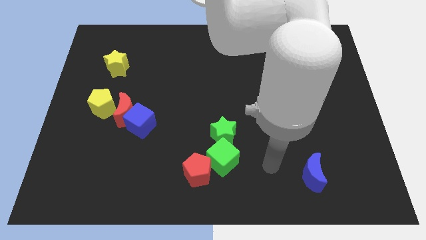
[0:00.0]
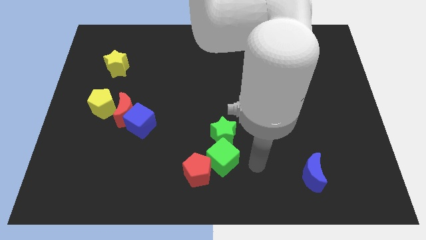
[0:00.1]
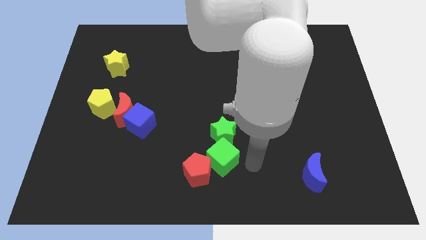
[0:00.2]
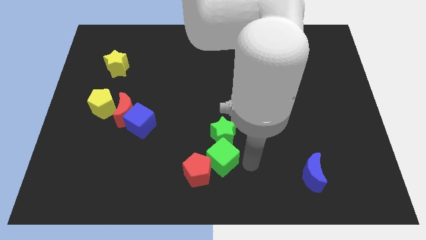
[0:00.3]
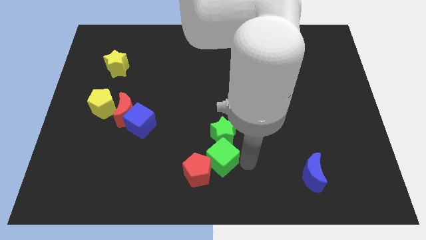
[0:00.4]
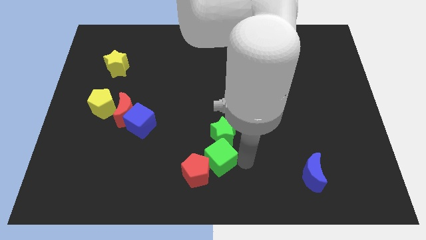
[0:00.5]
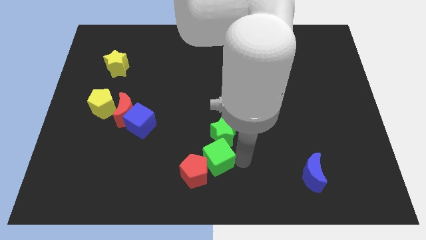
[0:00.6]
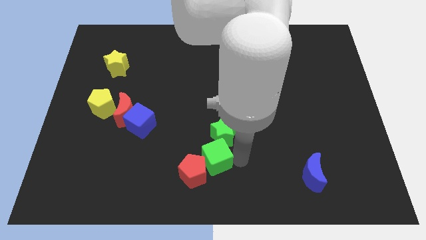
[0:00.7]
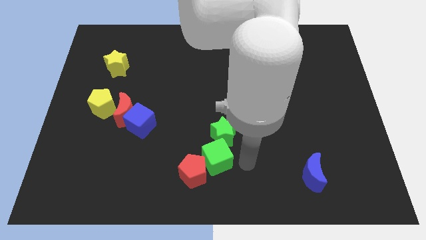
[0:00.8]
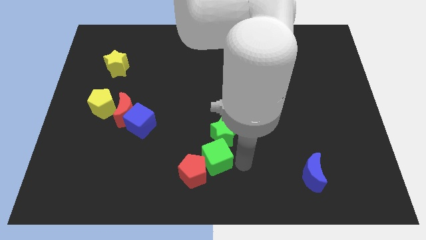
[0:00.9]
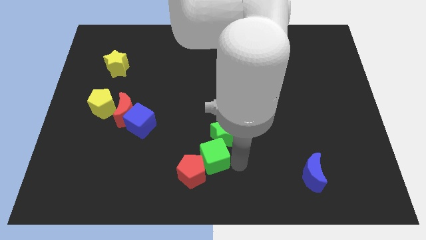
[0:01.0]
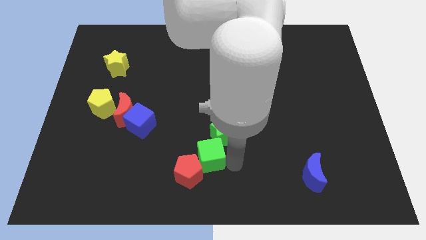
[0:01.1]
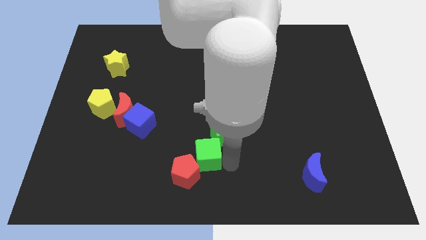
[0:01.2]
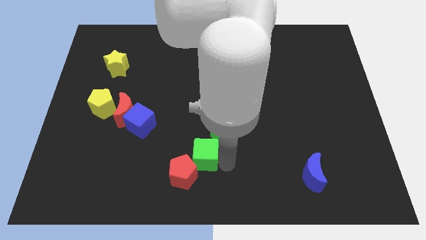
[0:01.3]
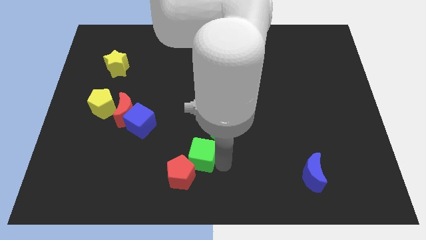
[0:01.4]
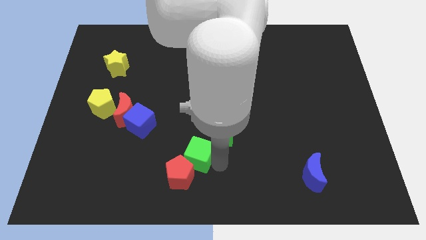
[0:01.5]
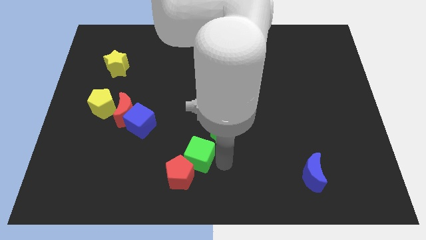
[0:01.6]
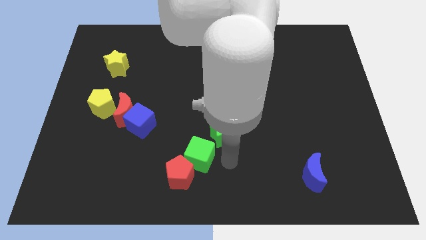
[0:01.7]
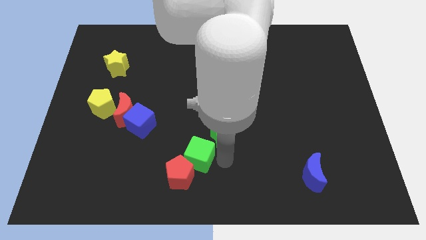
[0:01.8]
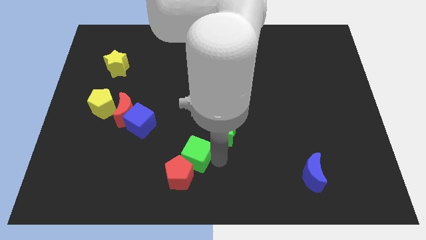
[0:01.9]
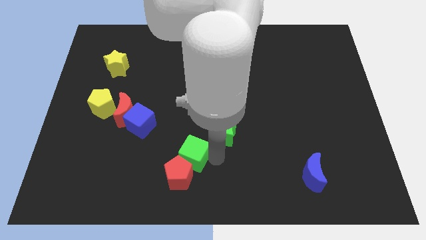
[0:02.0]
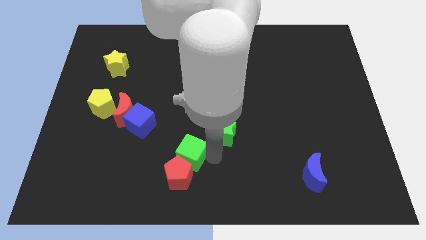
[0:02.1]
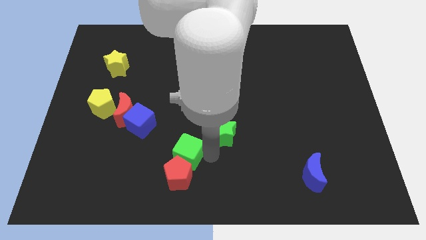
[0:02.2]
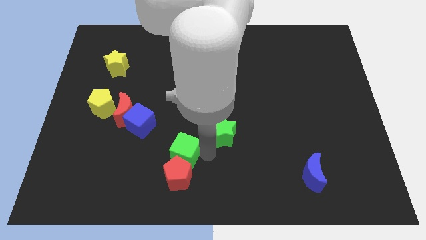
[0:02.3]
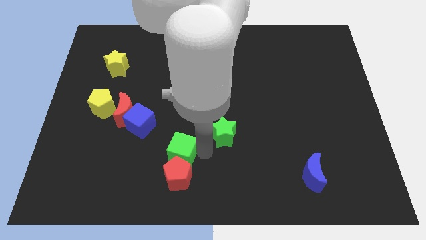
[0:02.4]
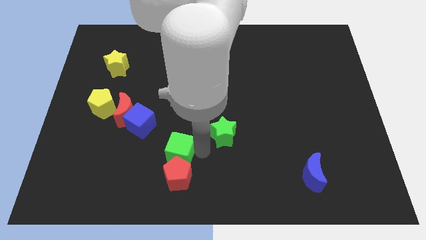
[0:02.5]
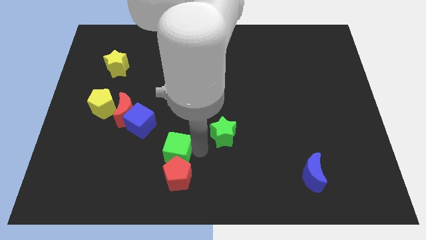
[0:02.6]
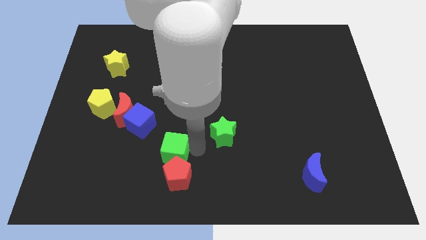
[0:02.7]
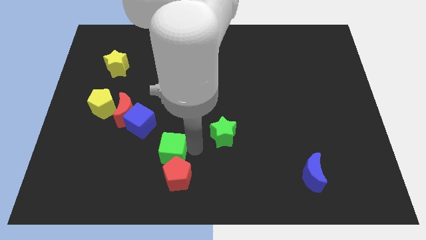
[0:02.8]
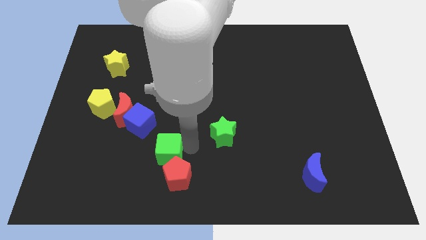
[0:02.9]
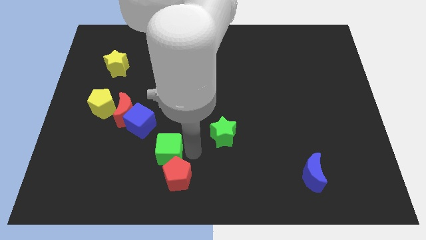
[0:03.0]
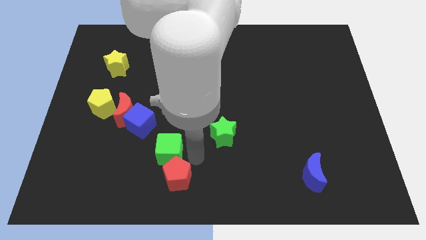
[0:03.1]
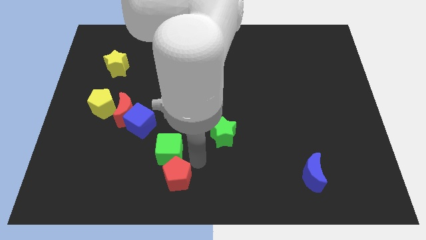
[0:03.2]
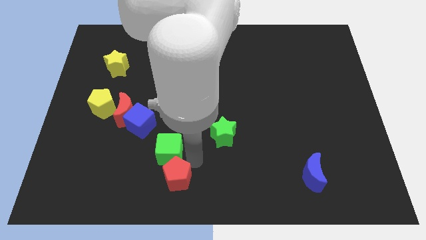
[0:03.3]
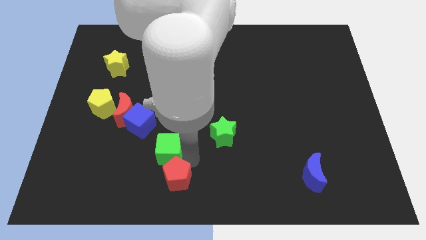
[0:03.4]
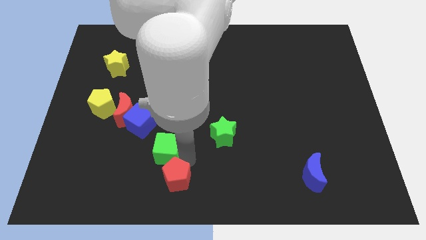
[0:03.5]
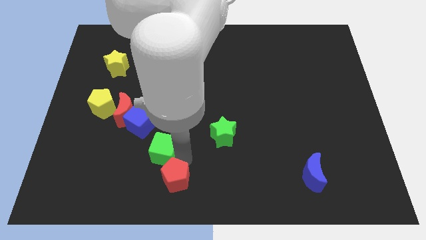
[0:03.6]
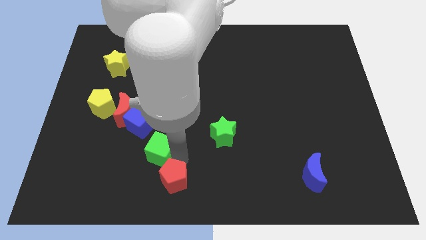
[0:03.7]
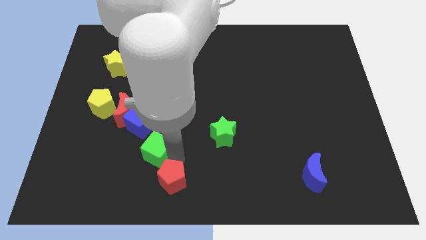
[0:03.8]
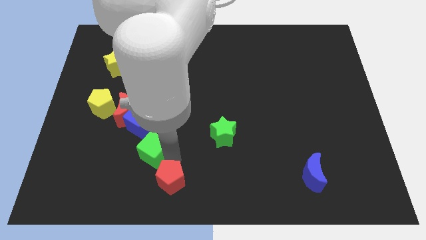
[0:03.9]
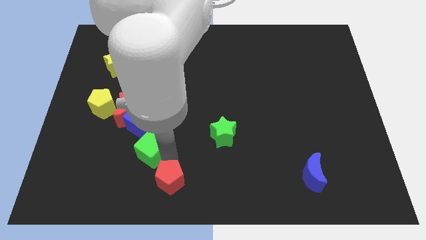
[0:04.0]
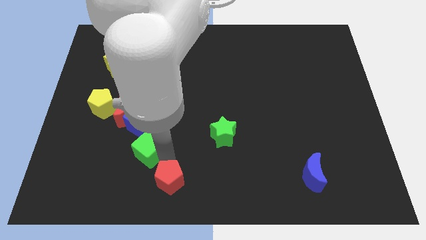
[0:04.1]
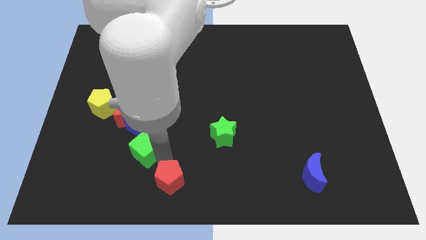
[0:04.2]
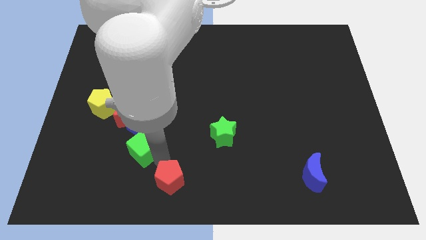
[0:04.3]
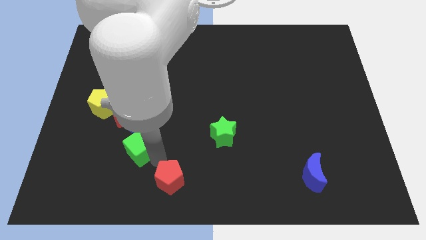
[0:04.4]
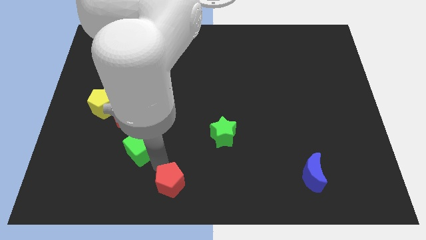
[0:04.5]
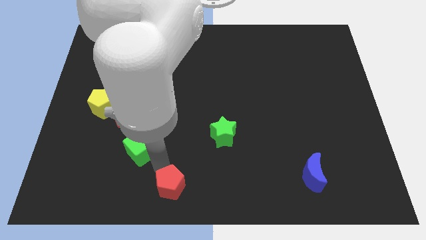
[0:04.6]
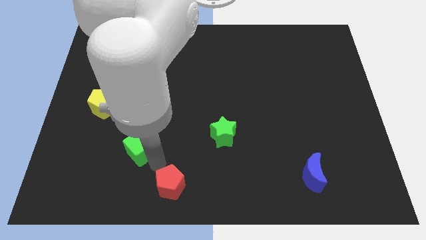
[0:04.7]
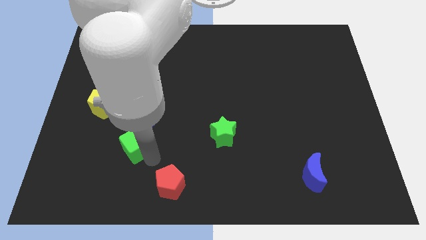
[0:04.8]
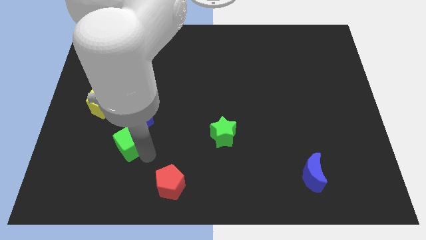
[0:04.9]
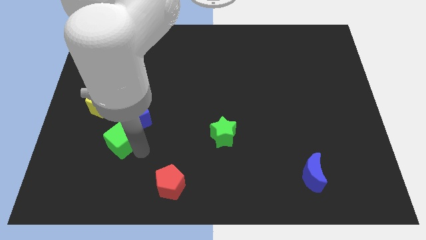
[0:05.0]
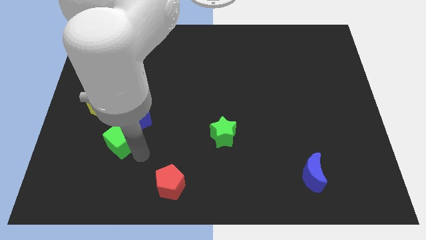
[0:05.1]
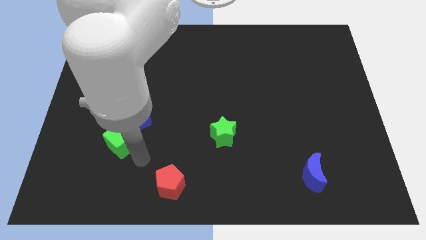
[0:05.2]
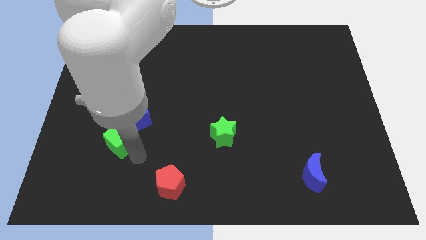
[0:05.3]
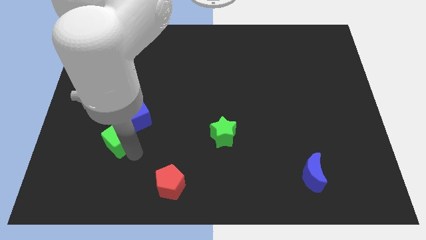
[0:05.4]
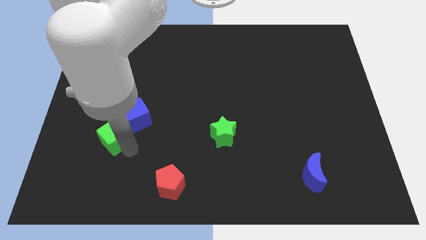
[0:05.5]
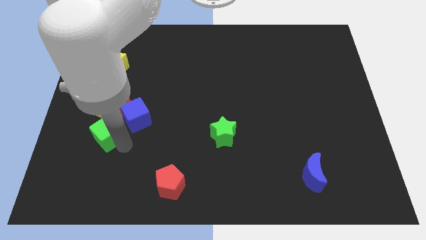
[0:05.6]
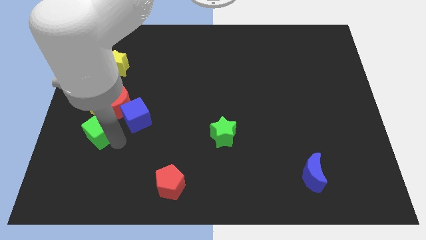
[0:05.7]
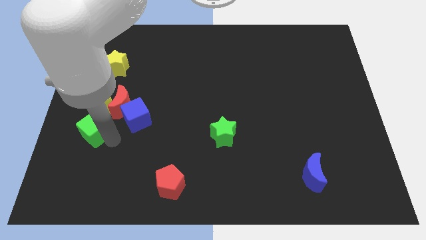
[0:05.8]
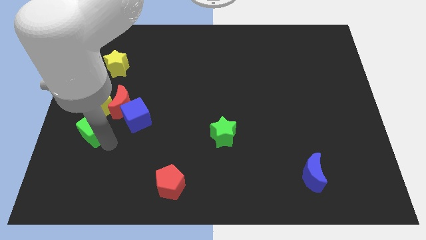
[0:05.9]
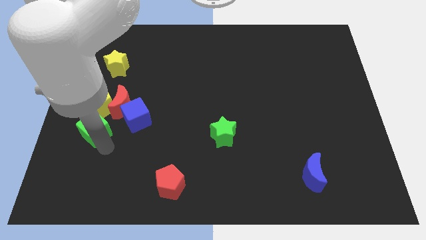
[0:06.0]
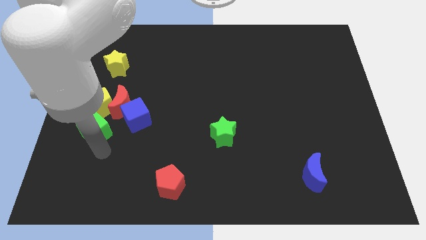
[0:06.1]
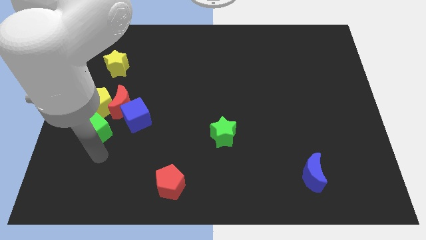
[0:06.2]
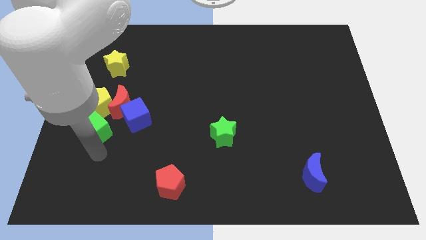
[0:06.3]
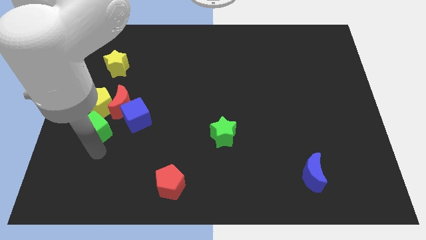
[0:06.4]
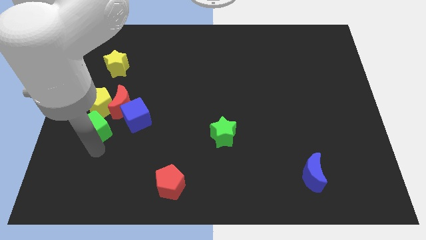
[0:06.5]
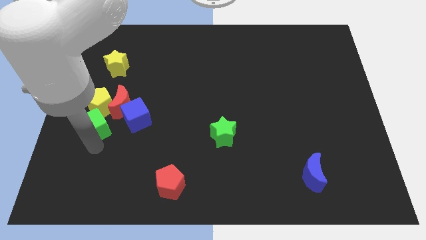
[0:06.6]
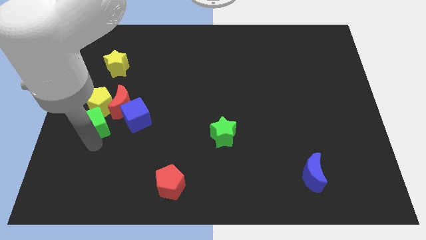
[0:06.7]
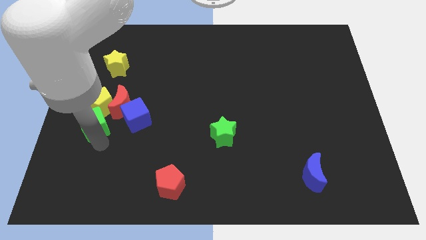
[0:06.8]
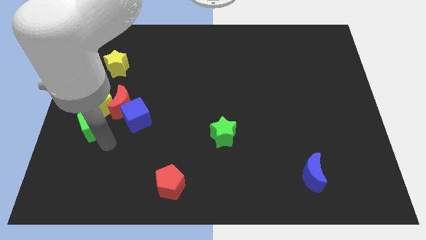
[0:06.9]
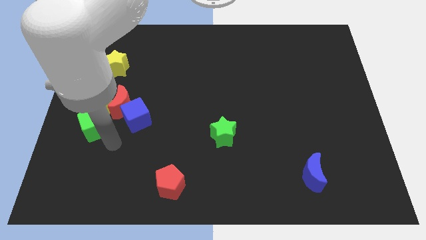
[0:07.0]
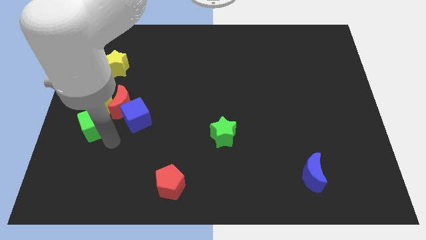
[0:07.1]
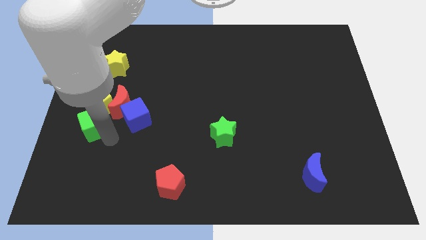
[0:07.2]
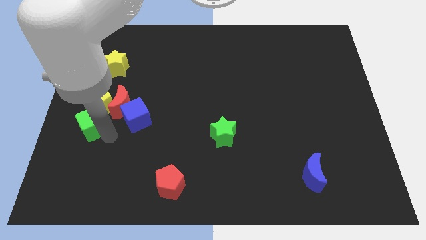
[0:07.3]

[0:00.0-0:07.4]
put the green cube to the left side

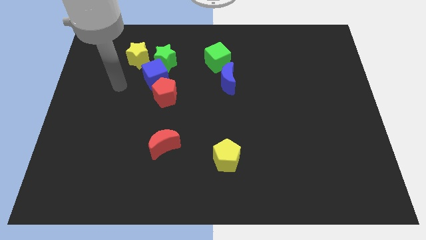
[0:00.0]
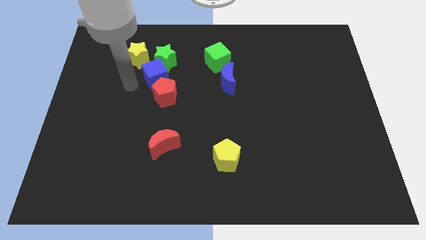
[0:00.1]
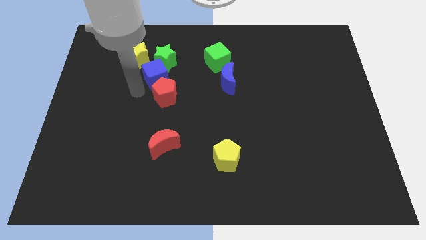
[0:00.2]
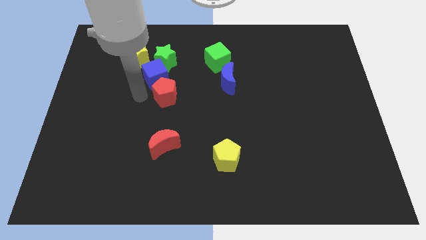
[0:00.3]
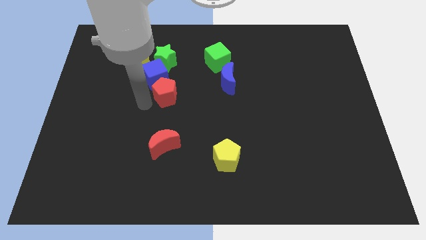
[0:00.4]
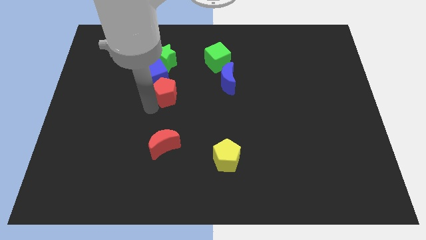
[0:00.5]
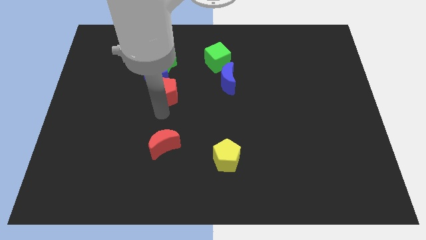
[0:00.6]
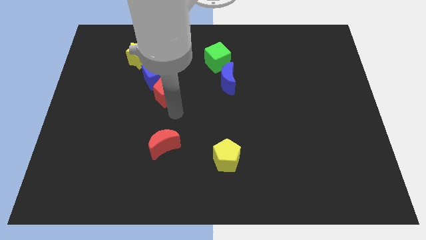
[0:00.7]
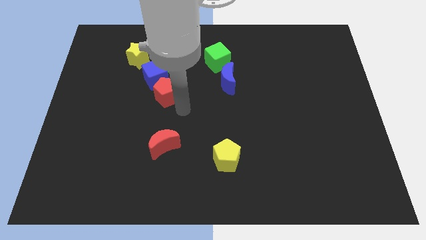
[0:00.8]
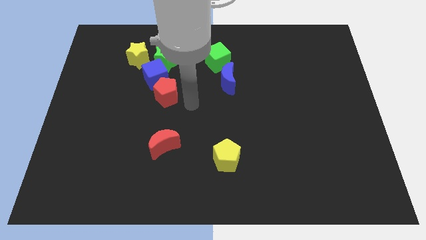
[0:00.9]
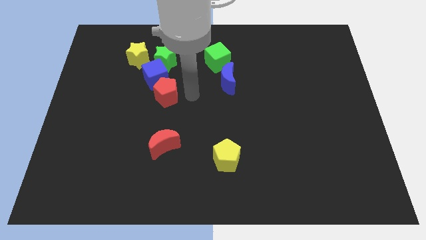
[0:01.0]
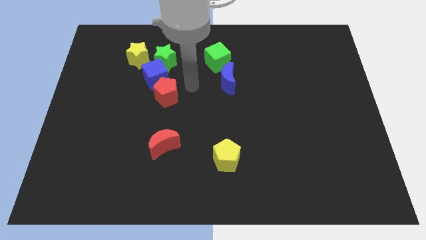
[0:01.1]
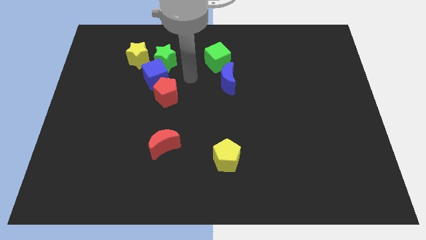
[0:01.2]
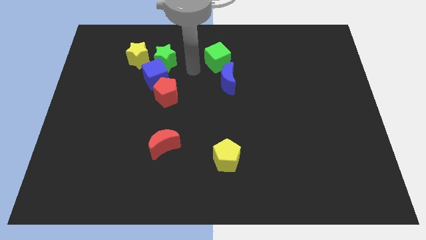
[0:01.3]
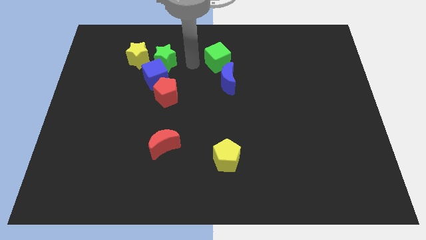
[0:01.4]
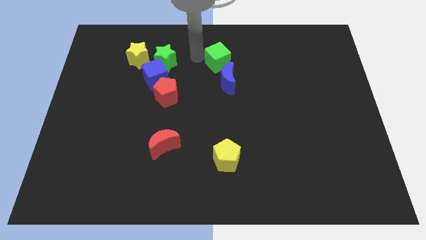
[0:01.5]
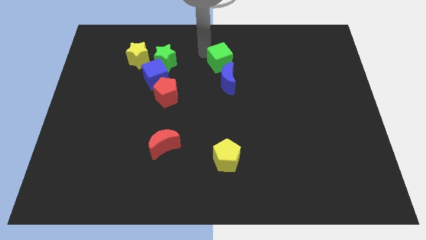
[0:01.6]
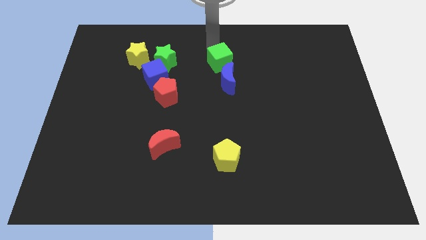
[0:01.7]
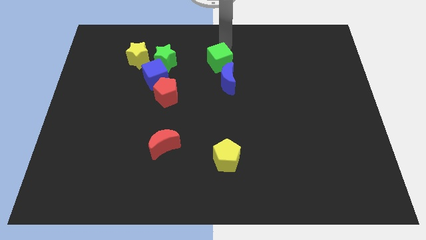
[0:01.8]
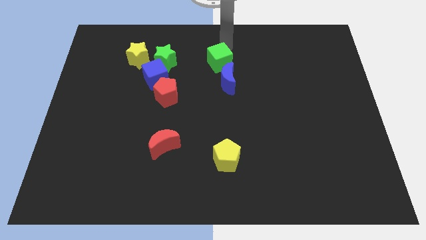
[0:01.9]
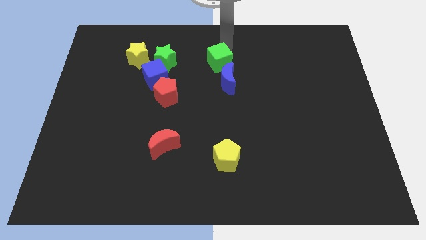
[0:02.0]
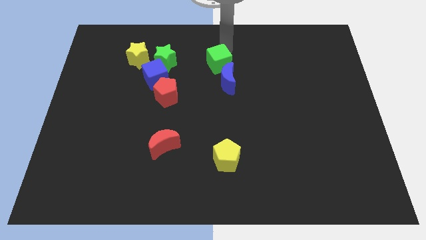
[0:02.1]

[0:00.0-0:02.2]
move the green cube to the center
